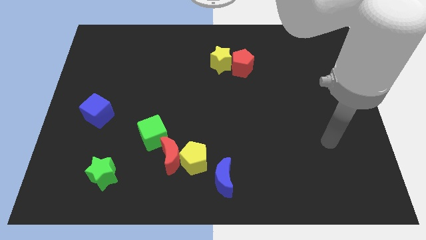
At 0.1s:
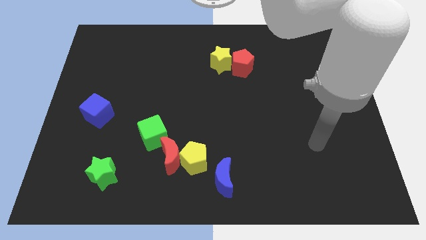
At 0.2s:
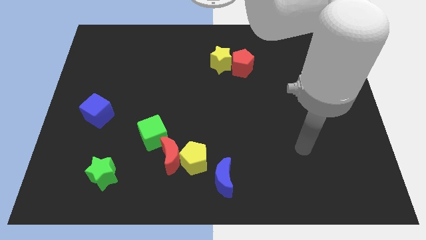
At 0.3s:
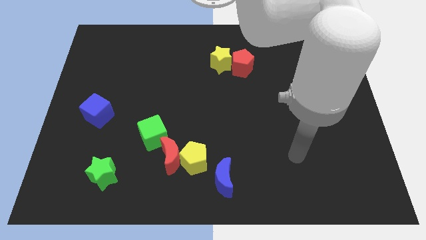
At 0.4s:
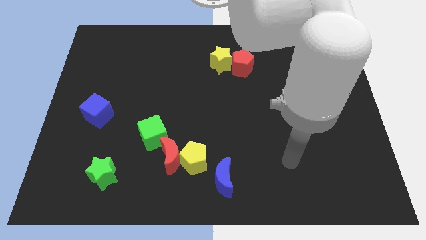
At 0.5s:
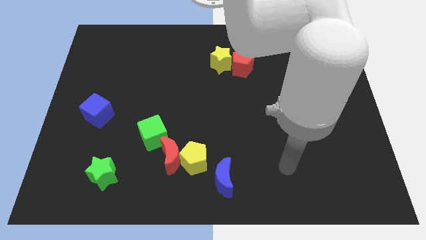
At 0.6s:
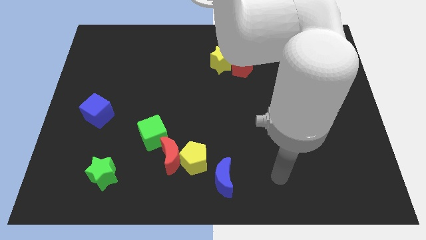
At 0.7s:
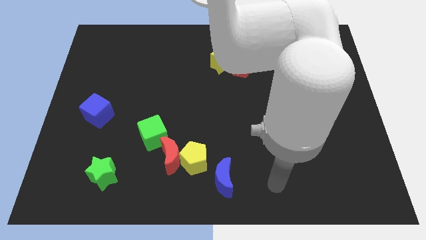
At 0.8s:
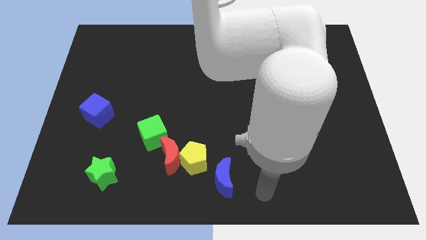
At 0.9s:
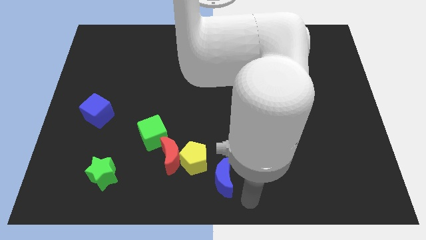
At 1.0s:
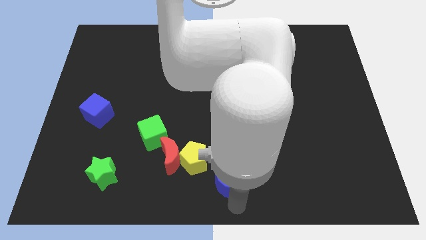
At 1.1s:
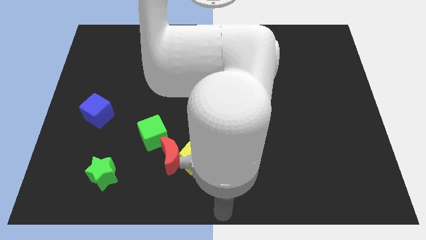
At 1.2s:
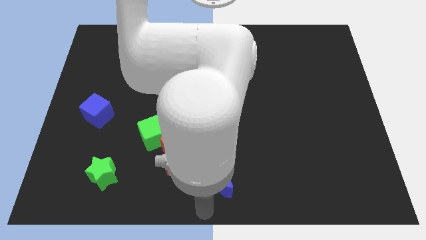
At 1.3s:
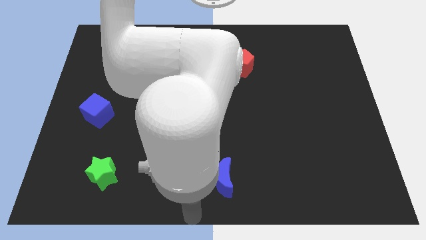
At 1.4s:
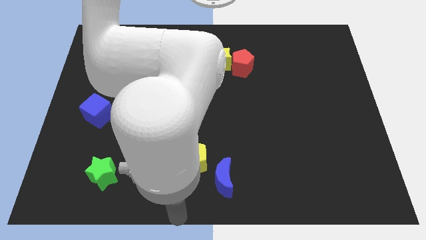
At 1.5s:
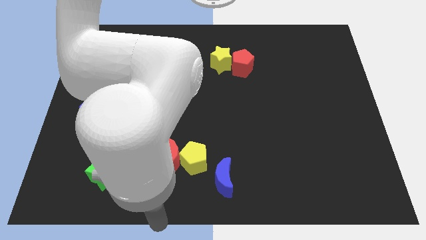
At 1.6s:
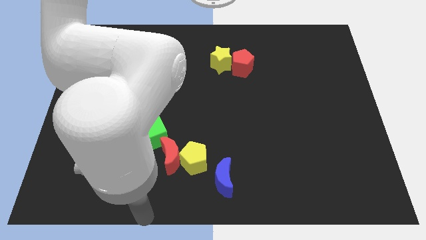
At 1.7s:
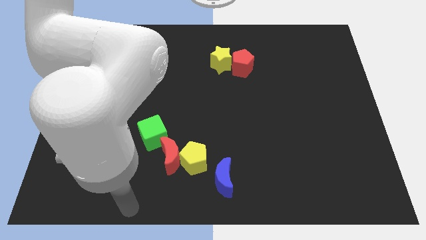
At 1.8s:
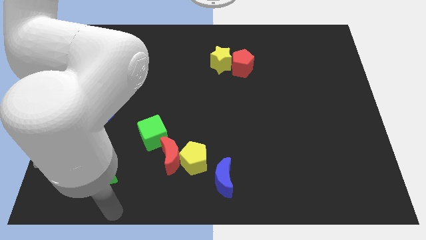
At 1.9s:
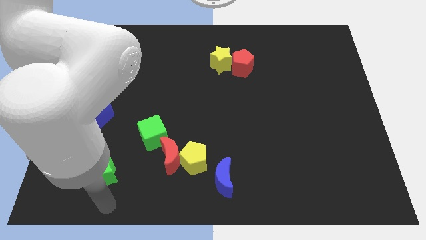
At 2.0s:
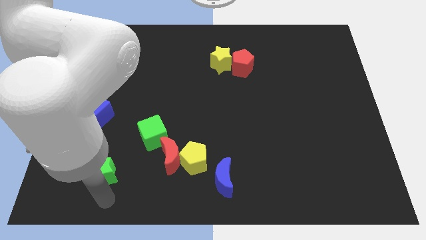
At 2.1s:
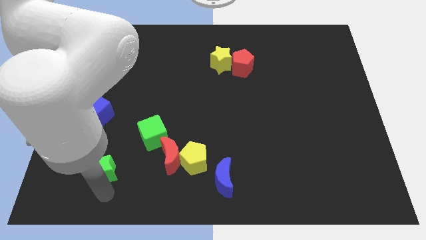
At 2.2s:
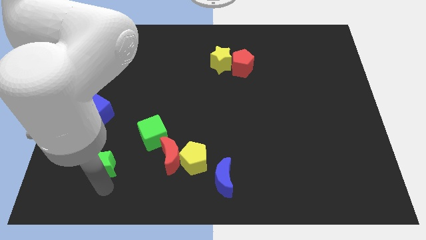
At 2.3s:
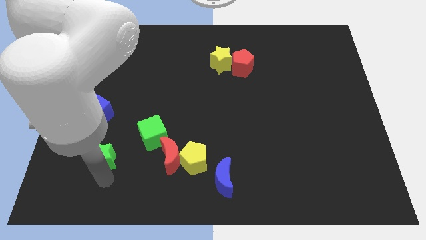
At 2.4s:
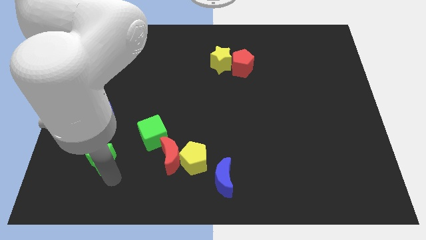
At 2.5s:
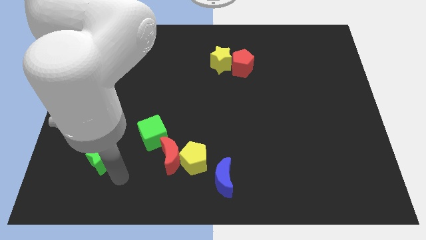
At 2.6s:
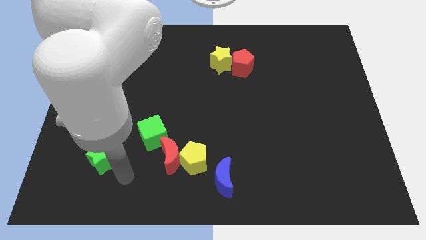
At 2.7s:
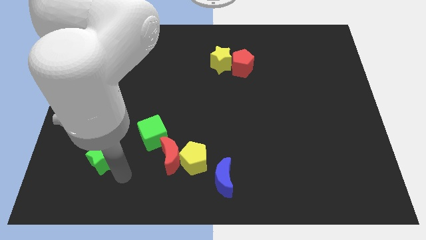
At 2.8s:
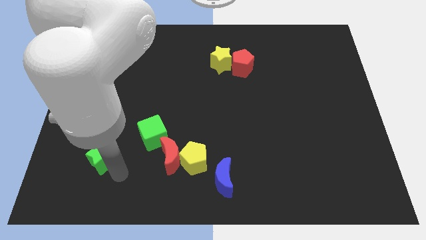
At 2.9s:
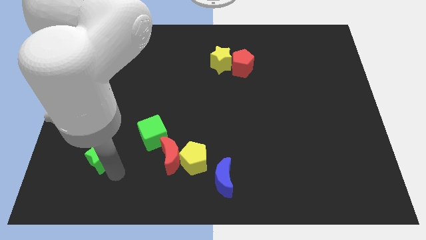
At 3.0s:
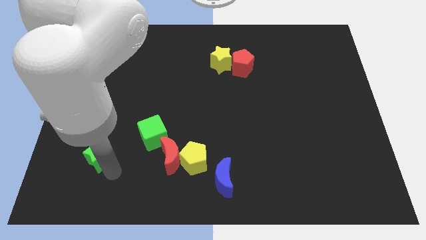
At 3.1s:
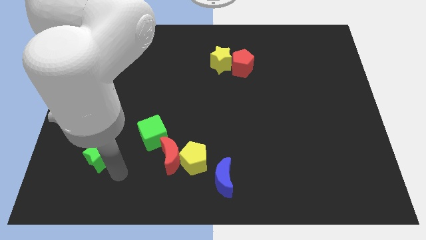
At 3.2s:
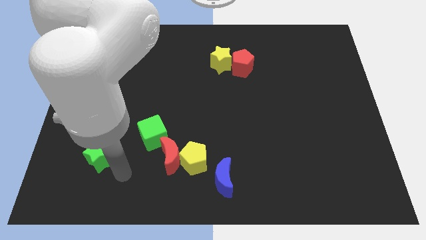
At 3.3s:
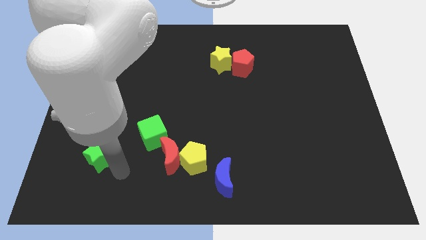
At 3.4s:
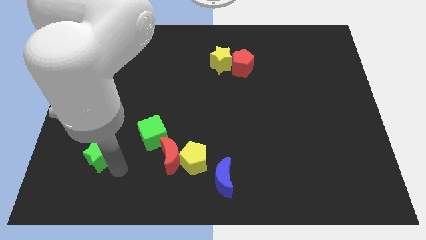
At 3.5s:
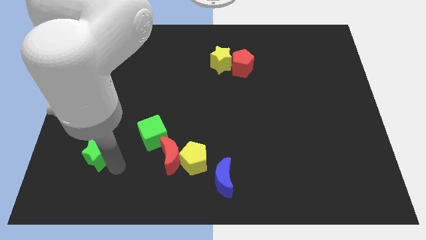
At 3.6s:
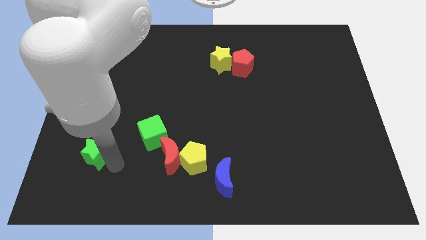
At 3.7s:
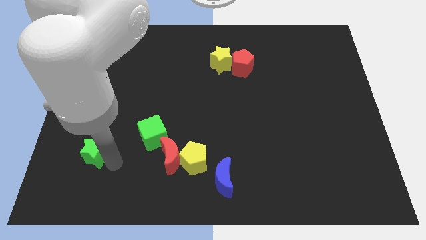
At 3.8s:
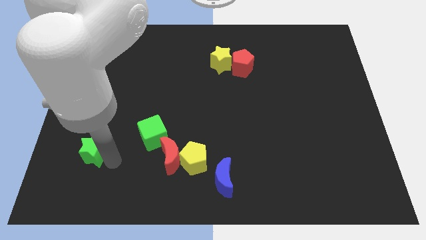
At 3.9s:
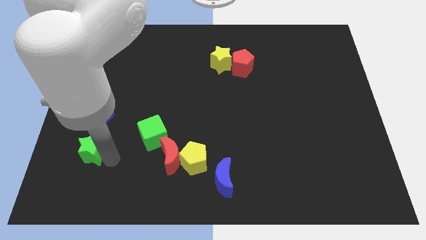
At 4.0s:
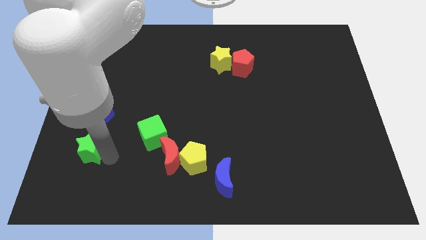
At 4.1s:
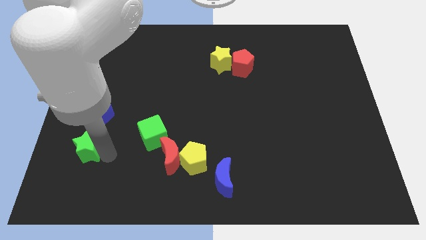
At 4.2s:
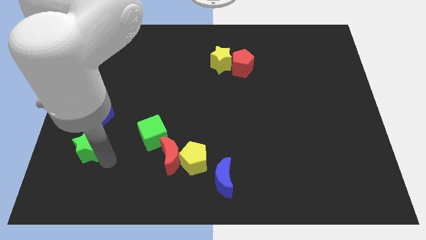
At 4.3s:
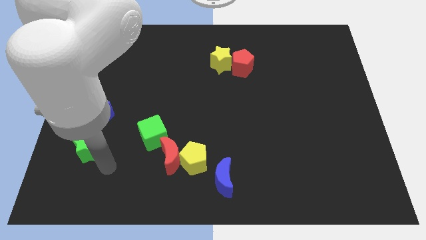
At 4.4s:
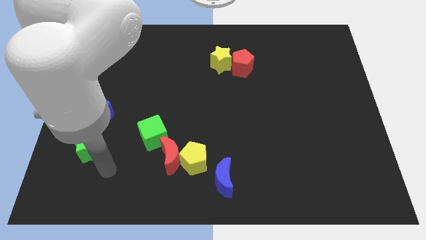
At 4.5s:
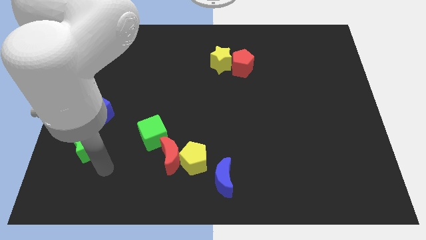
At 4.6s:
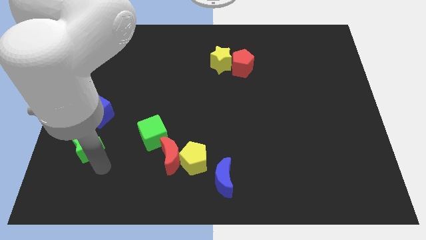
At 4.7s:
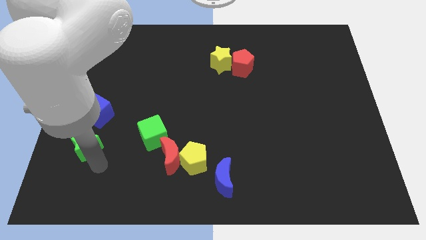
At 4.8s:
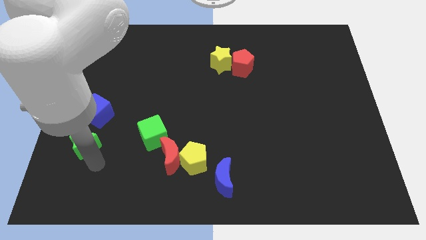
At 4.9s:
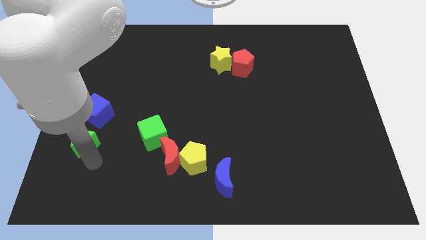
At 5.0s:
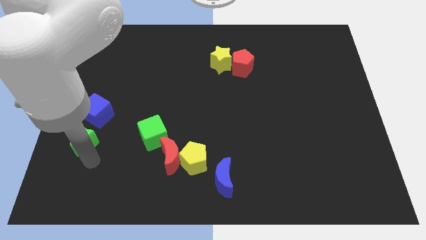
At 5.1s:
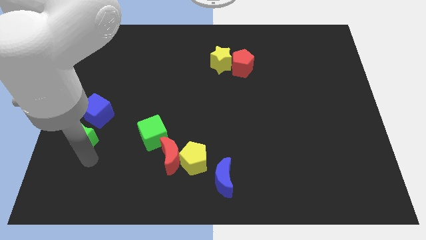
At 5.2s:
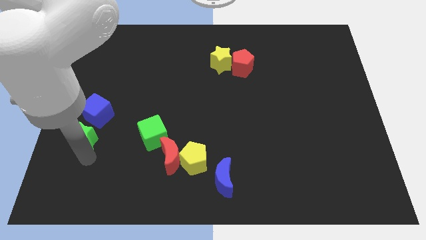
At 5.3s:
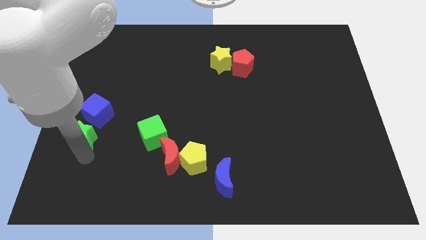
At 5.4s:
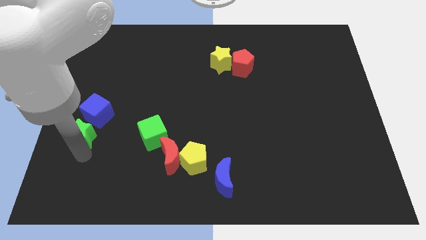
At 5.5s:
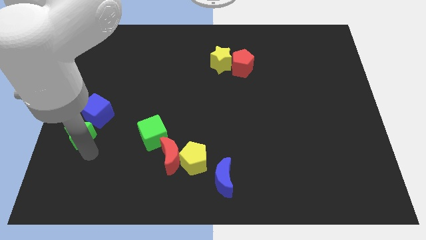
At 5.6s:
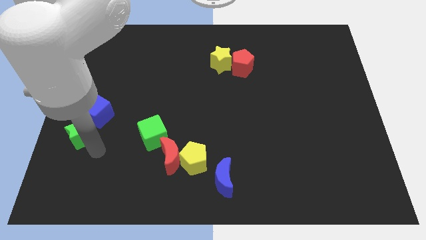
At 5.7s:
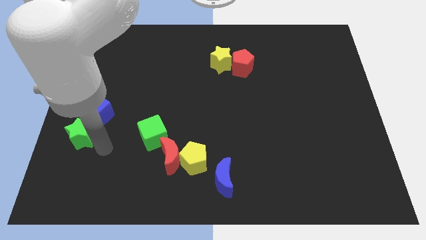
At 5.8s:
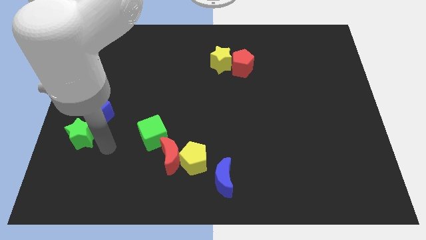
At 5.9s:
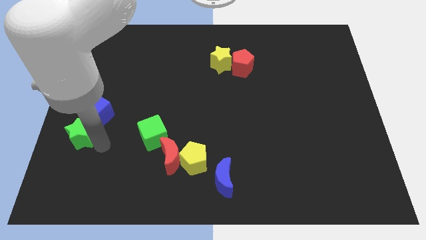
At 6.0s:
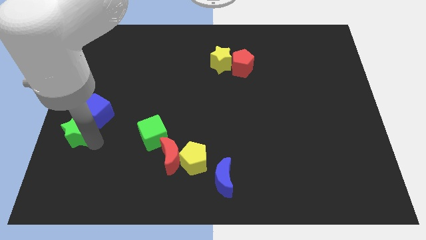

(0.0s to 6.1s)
slide the green star to the left side

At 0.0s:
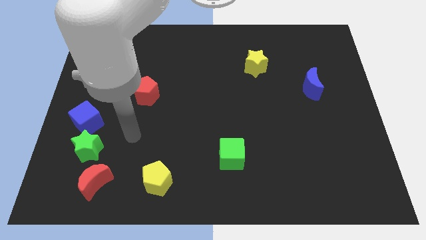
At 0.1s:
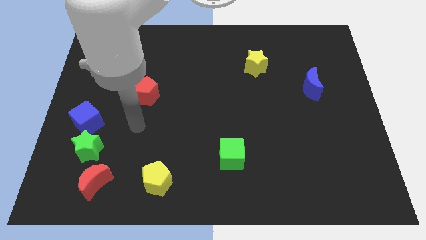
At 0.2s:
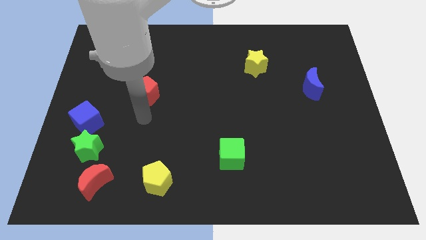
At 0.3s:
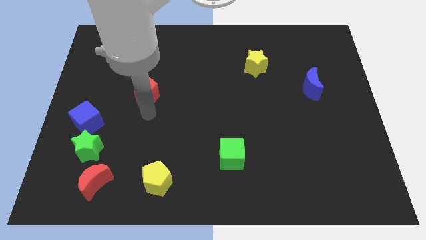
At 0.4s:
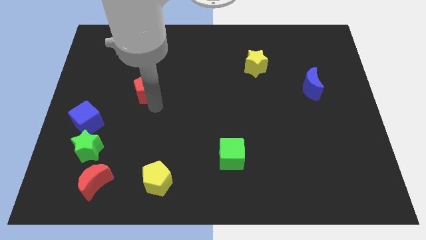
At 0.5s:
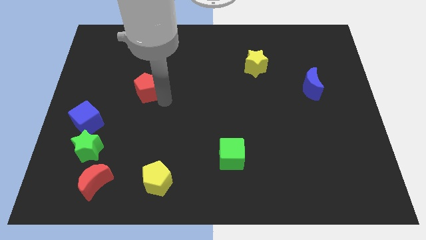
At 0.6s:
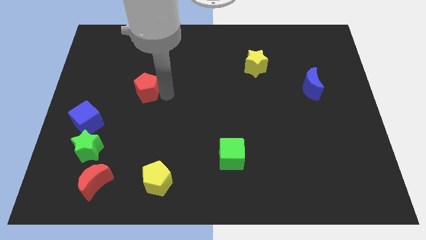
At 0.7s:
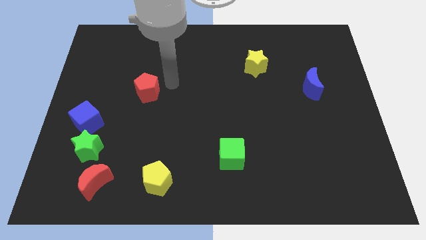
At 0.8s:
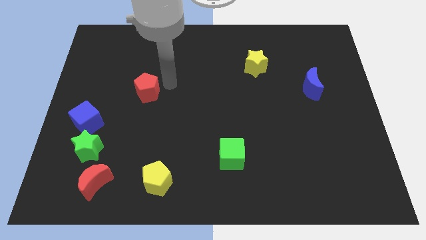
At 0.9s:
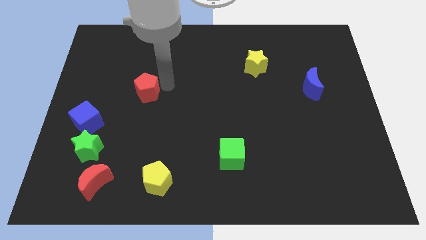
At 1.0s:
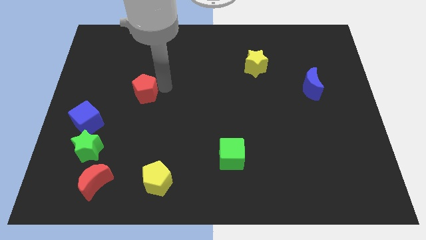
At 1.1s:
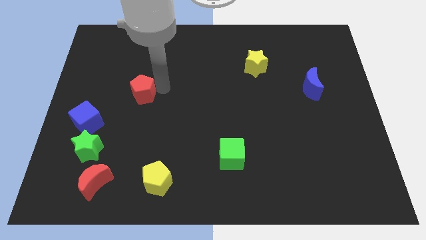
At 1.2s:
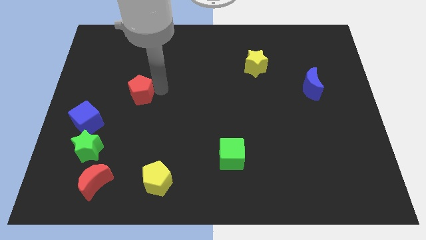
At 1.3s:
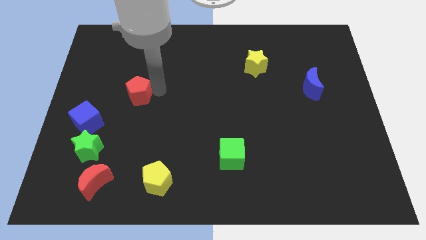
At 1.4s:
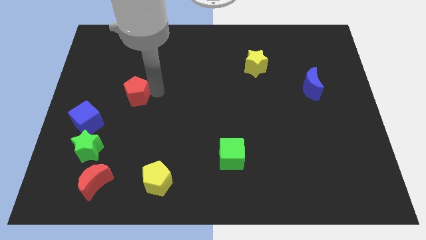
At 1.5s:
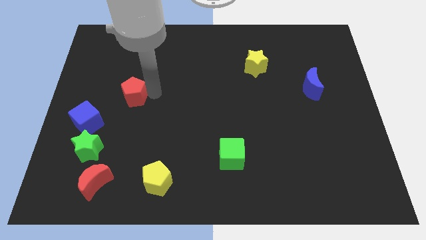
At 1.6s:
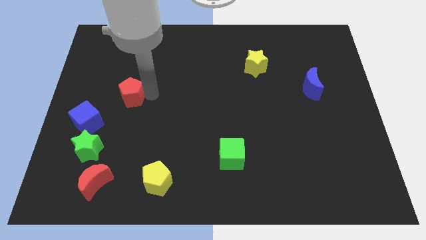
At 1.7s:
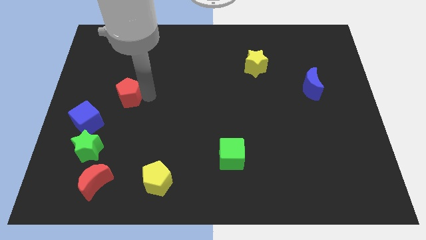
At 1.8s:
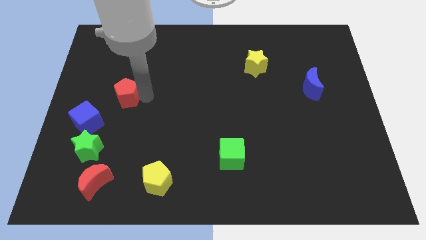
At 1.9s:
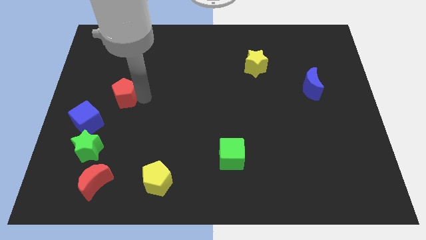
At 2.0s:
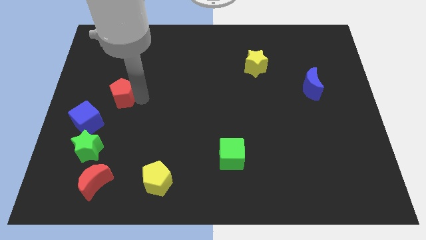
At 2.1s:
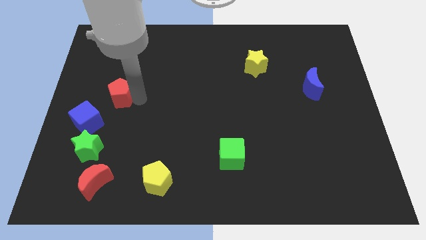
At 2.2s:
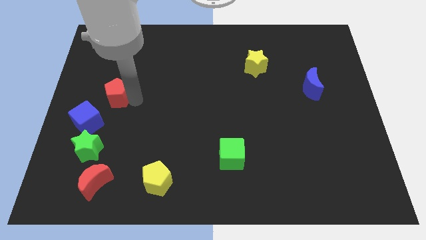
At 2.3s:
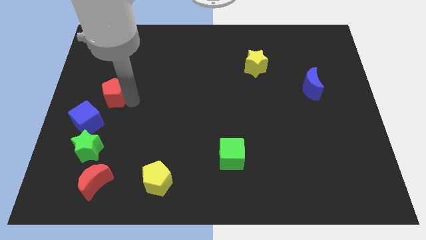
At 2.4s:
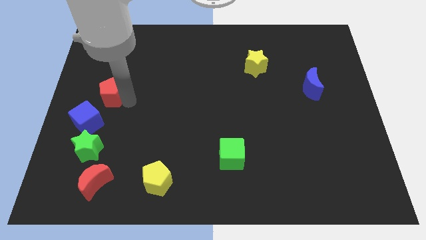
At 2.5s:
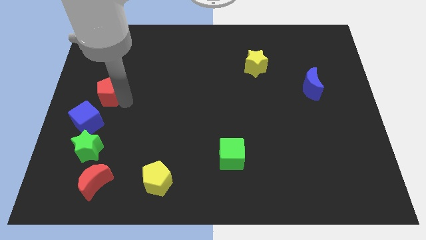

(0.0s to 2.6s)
push the red pentagon to the left side
